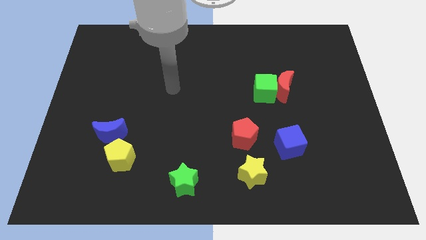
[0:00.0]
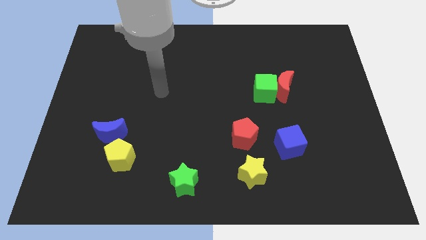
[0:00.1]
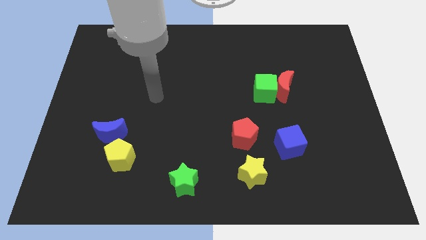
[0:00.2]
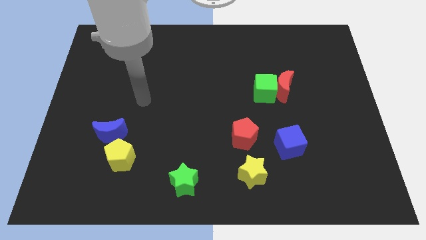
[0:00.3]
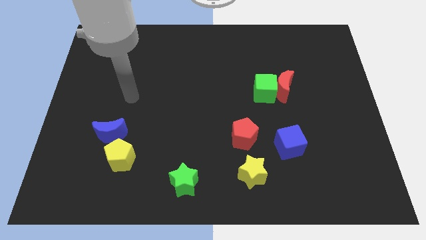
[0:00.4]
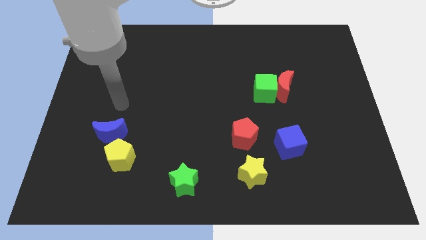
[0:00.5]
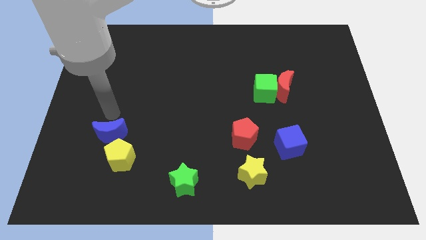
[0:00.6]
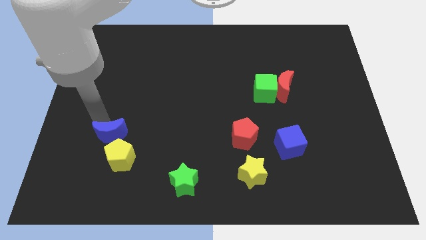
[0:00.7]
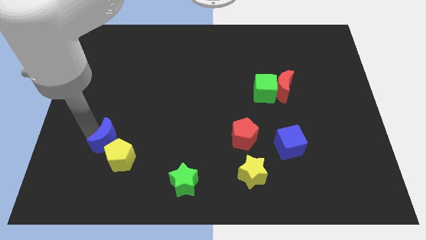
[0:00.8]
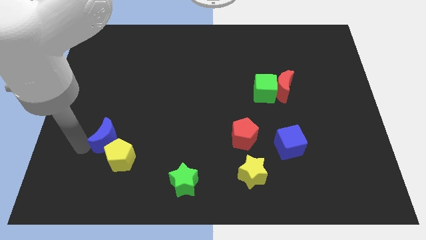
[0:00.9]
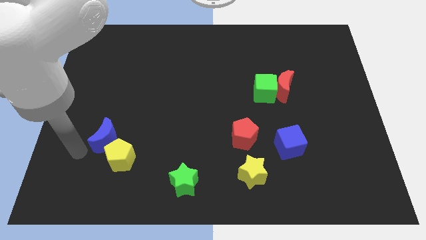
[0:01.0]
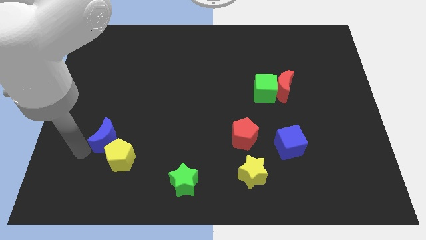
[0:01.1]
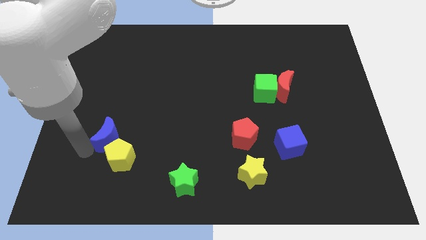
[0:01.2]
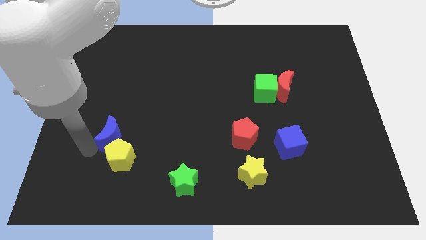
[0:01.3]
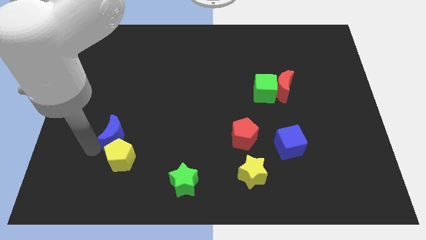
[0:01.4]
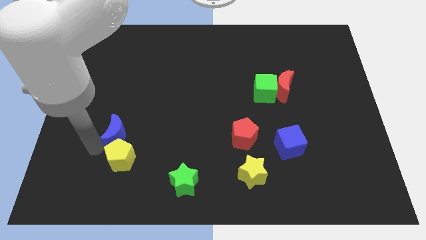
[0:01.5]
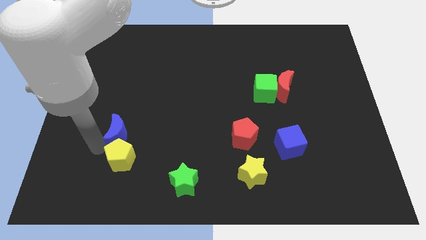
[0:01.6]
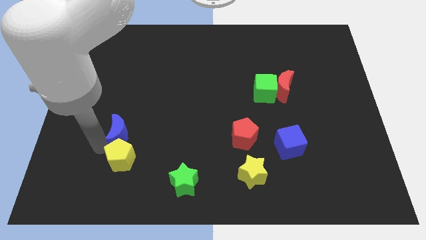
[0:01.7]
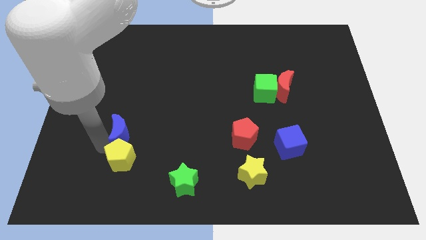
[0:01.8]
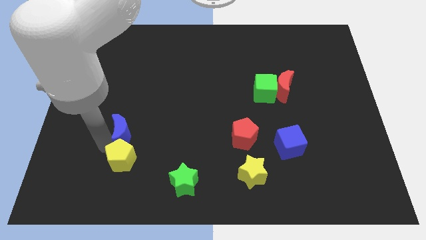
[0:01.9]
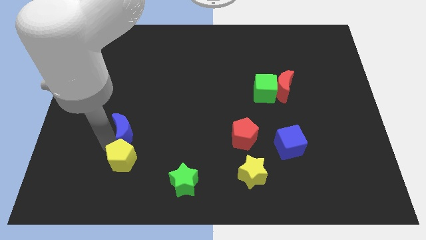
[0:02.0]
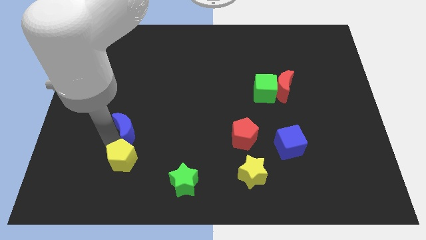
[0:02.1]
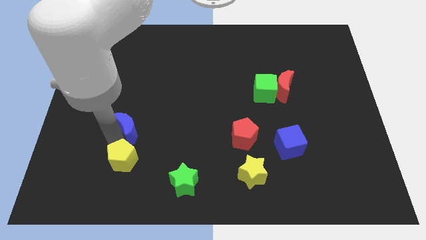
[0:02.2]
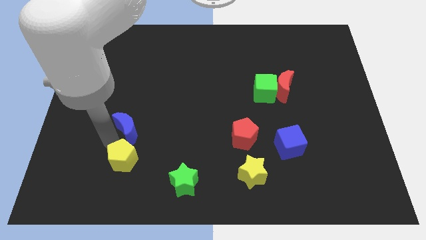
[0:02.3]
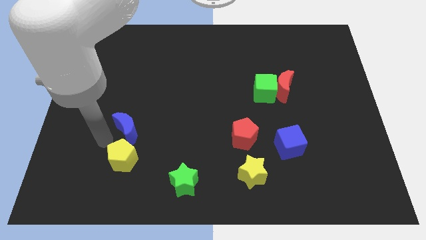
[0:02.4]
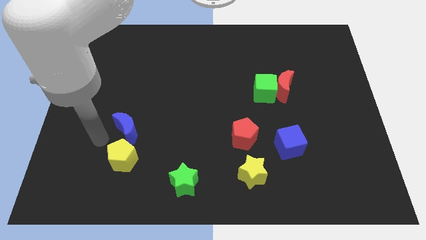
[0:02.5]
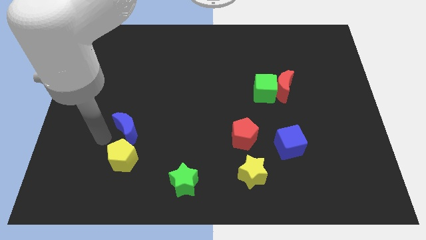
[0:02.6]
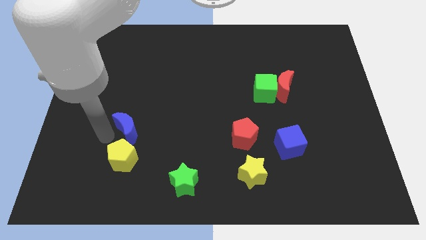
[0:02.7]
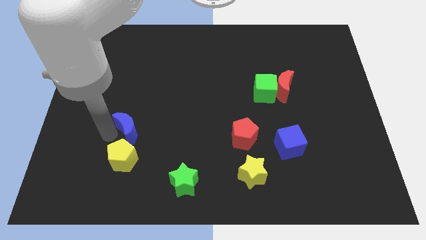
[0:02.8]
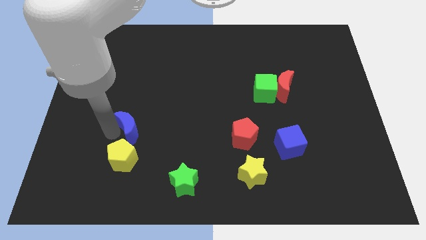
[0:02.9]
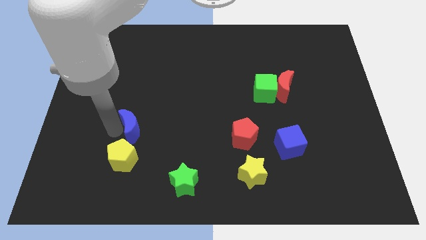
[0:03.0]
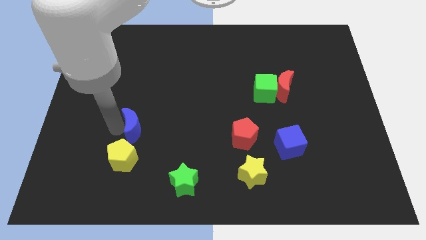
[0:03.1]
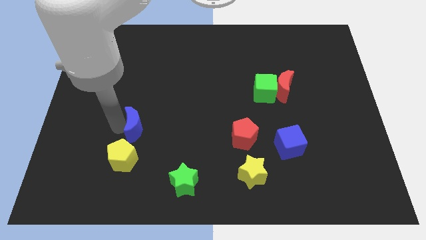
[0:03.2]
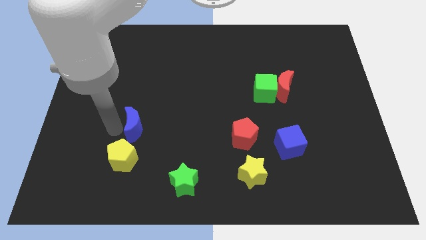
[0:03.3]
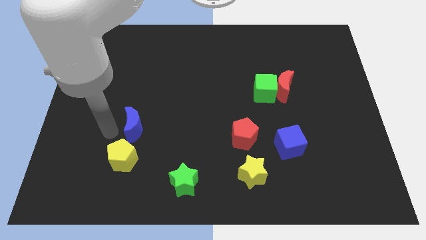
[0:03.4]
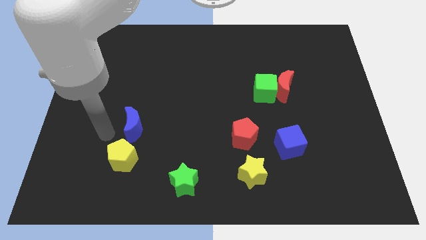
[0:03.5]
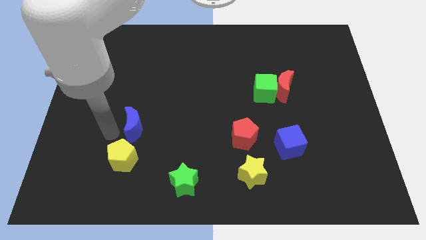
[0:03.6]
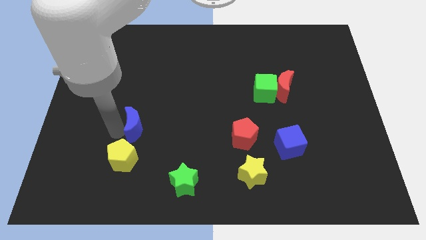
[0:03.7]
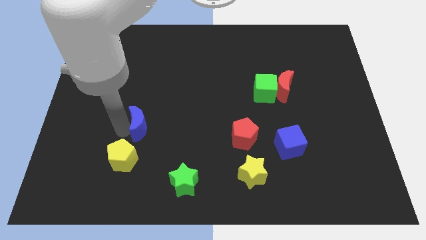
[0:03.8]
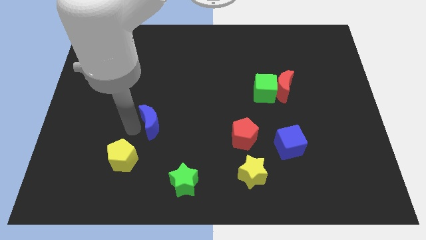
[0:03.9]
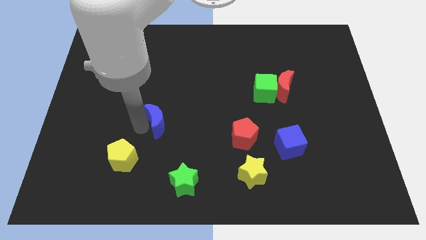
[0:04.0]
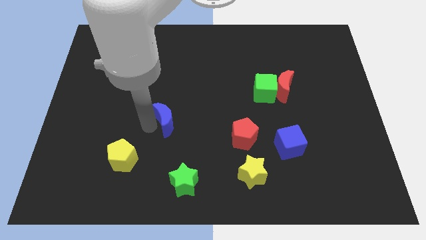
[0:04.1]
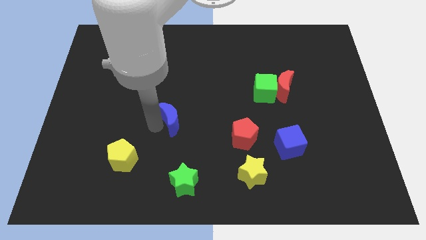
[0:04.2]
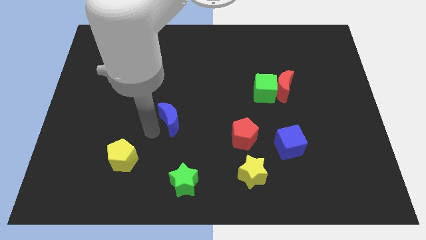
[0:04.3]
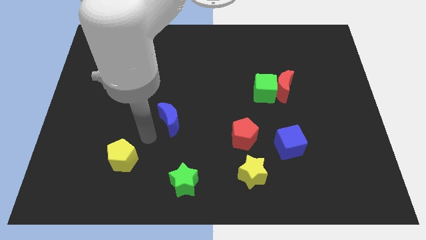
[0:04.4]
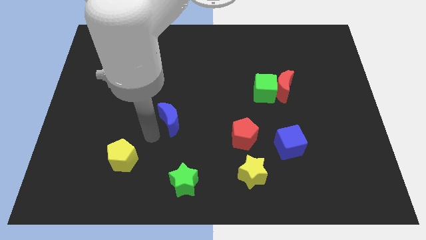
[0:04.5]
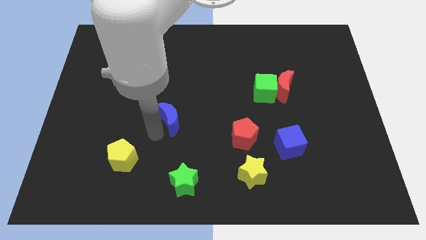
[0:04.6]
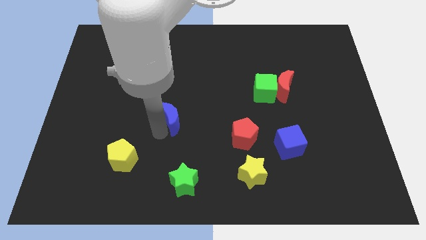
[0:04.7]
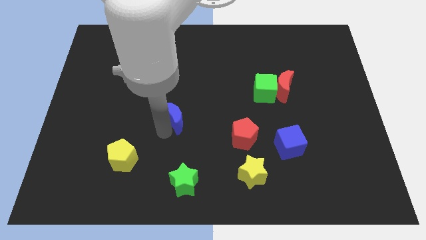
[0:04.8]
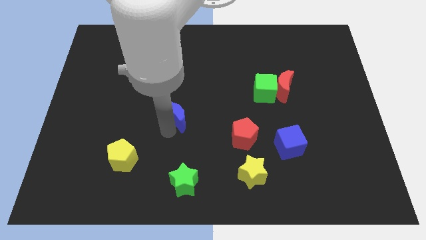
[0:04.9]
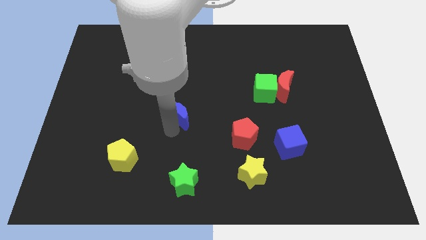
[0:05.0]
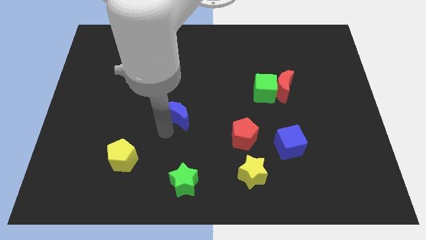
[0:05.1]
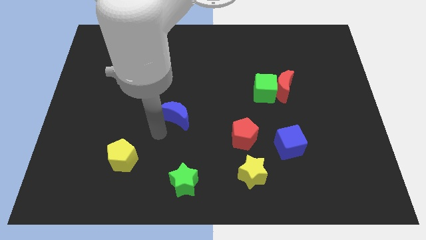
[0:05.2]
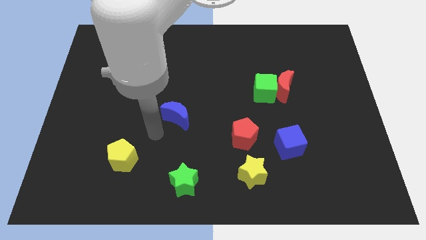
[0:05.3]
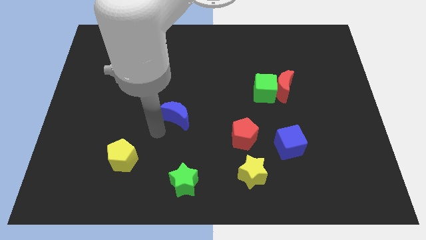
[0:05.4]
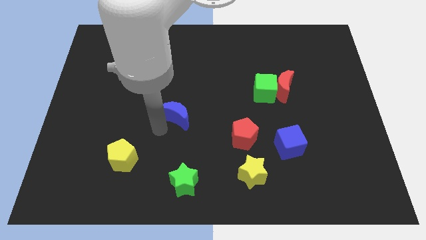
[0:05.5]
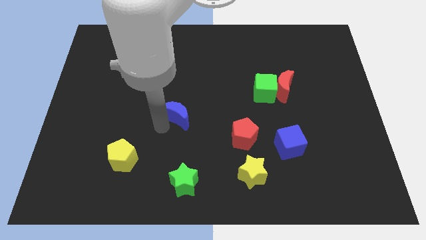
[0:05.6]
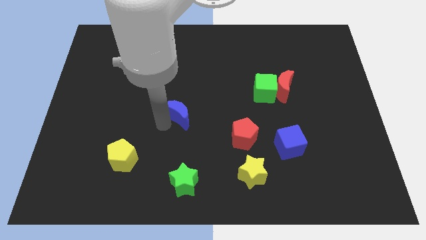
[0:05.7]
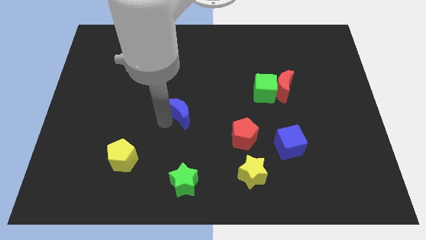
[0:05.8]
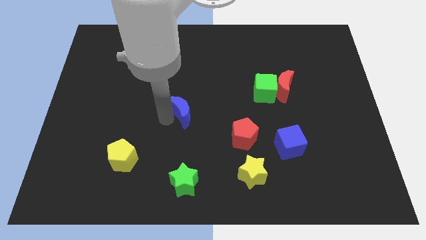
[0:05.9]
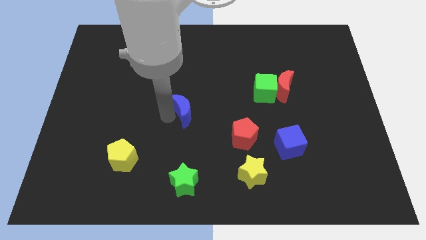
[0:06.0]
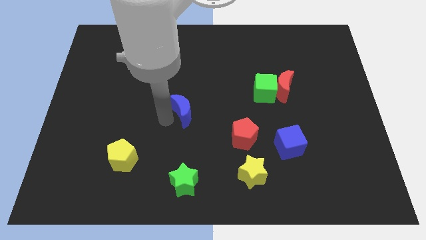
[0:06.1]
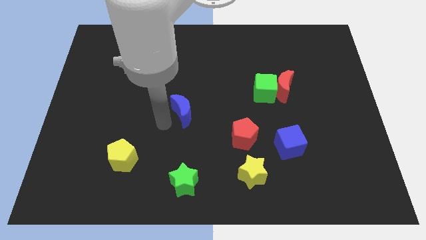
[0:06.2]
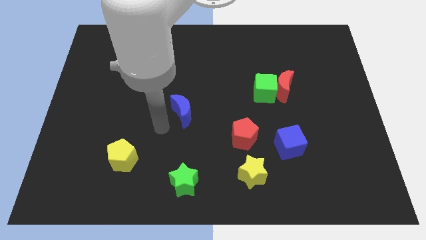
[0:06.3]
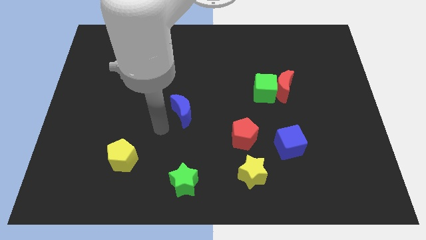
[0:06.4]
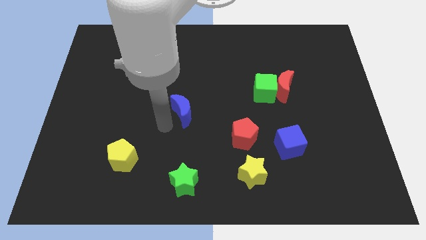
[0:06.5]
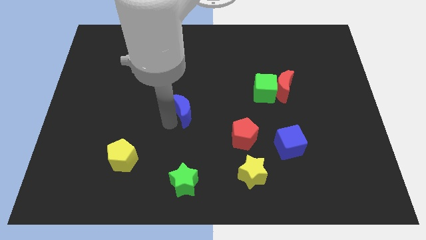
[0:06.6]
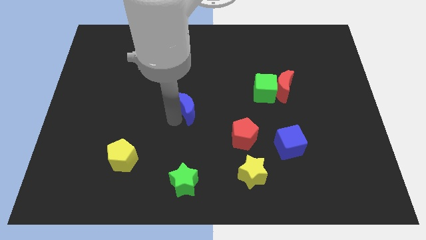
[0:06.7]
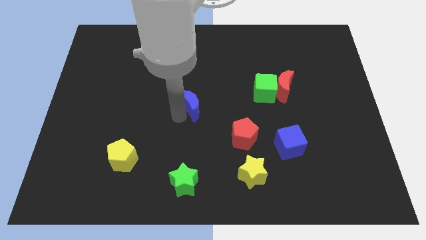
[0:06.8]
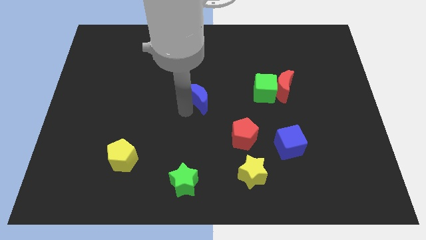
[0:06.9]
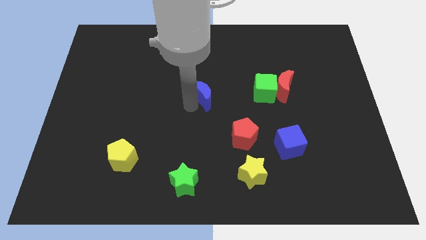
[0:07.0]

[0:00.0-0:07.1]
put the blue moon to the left of the green cube
